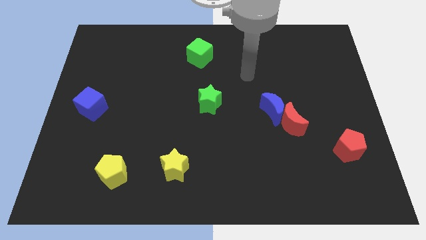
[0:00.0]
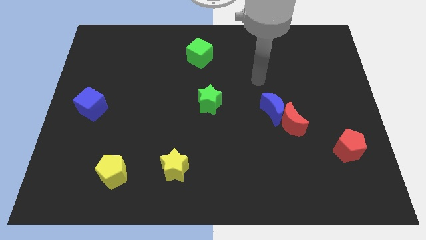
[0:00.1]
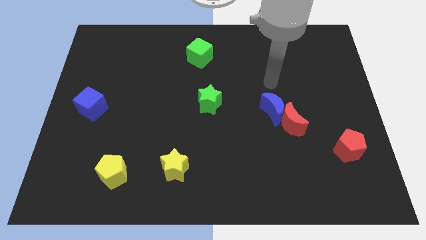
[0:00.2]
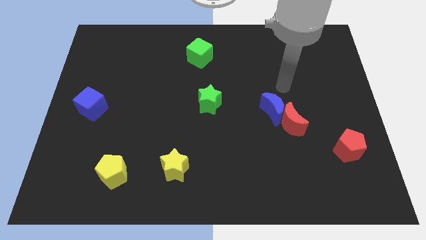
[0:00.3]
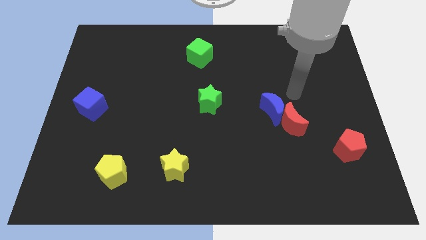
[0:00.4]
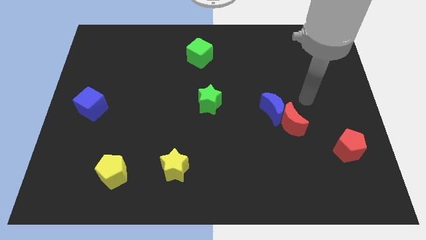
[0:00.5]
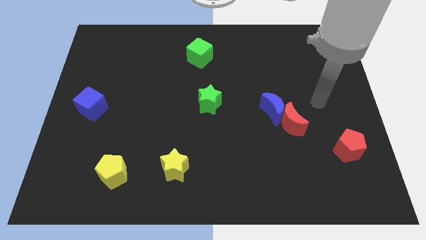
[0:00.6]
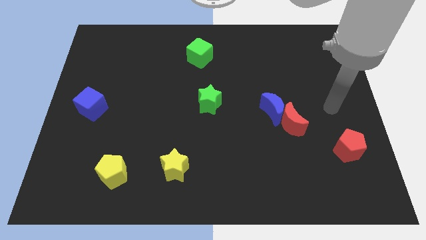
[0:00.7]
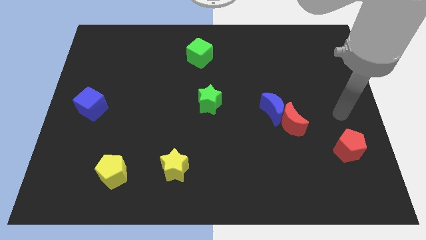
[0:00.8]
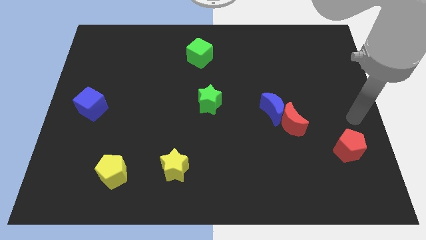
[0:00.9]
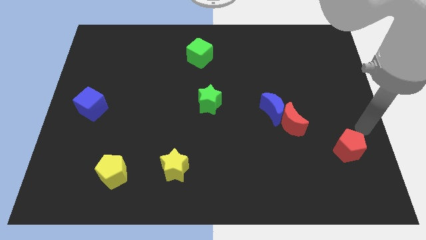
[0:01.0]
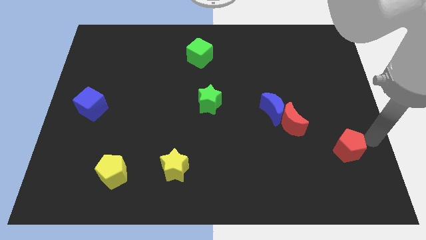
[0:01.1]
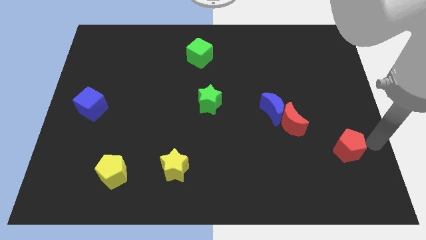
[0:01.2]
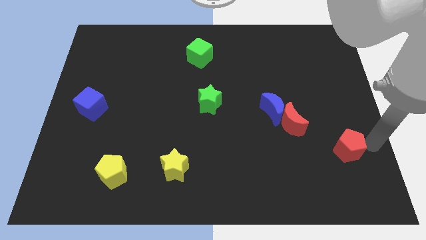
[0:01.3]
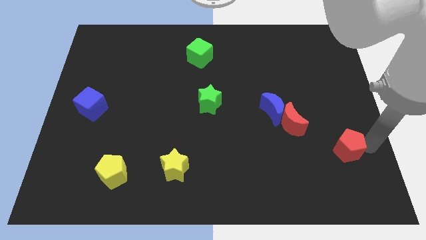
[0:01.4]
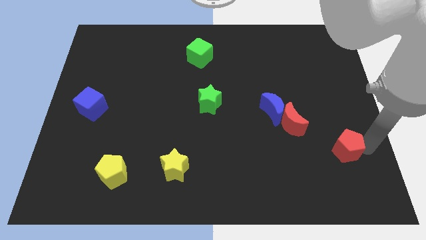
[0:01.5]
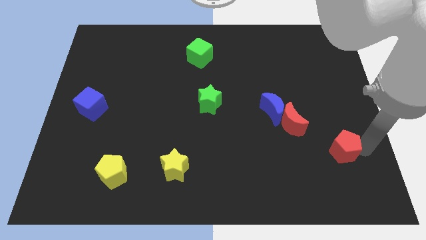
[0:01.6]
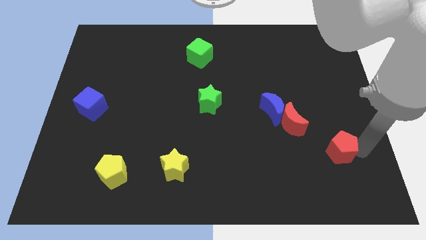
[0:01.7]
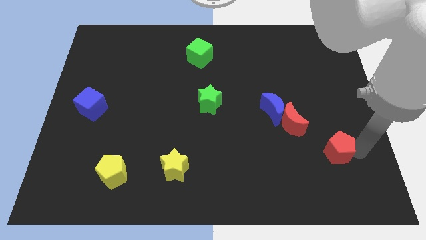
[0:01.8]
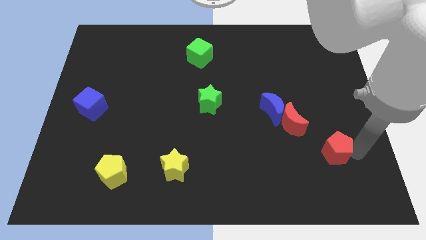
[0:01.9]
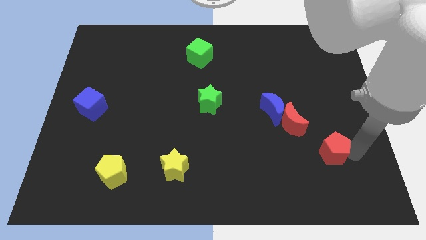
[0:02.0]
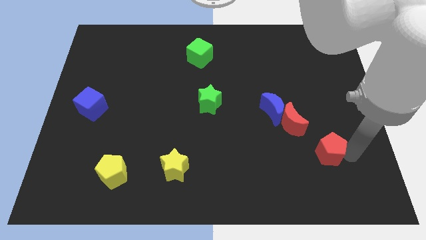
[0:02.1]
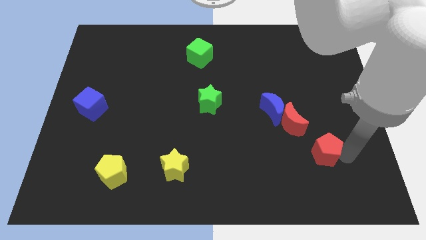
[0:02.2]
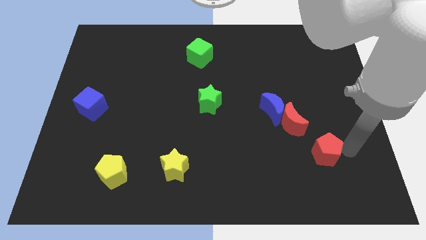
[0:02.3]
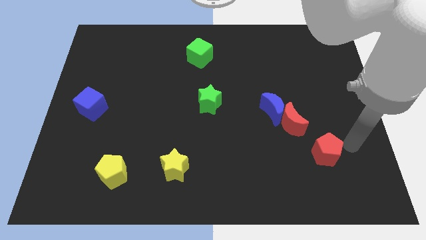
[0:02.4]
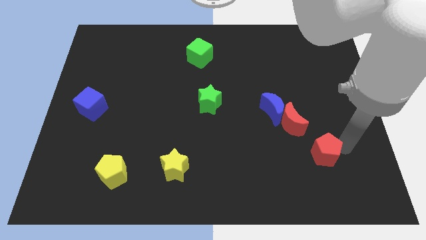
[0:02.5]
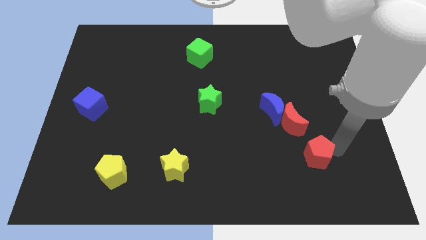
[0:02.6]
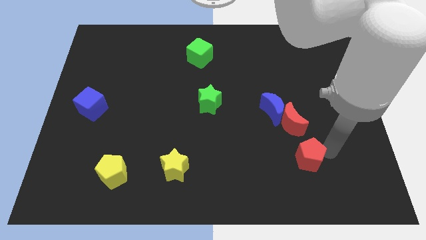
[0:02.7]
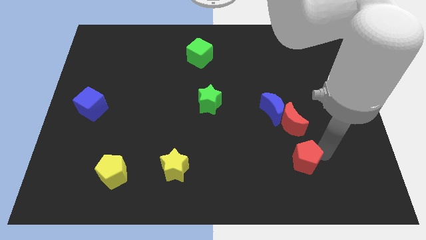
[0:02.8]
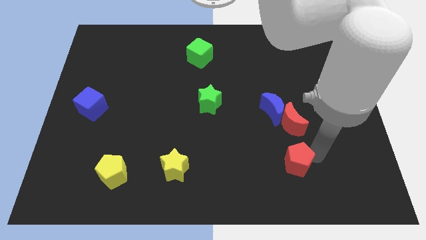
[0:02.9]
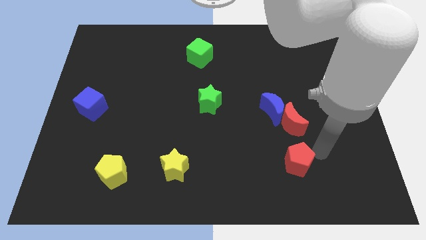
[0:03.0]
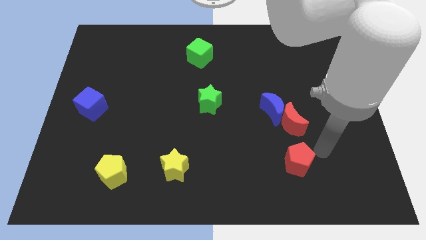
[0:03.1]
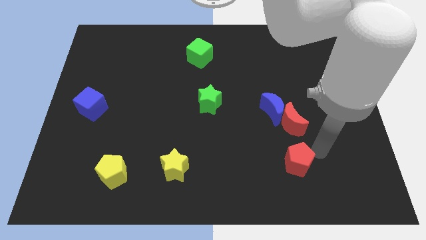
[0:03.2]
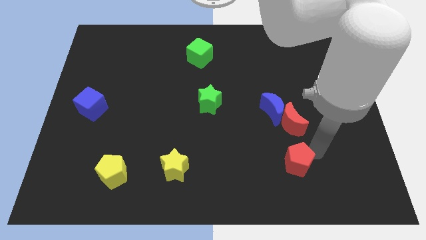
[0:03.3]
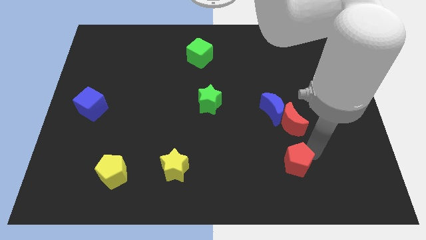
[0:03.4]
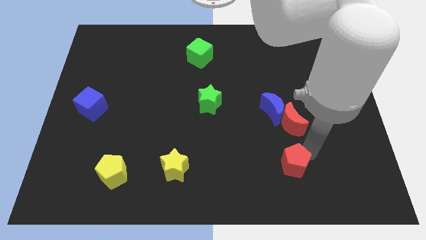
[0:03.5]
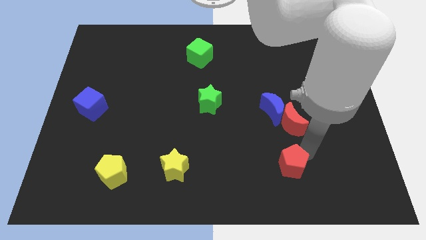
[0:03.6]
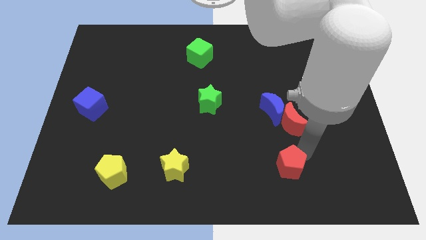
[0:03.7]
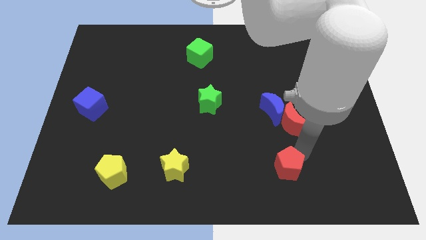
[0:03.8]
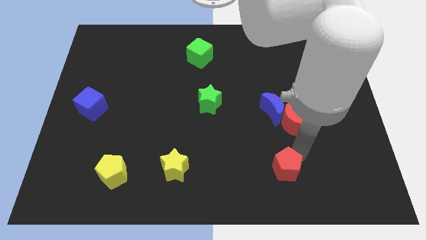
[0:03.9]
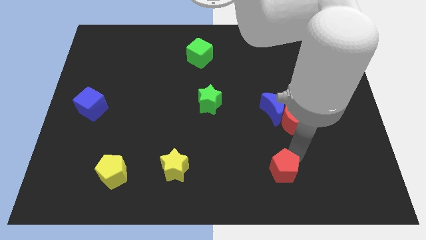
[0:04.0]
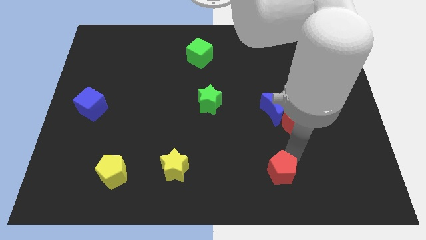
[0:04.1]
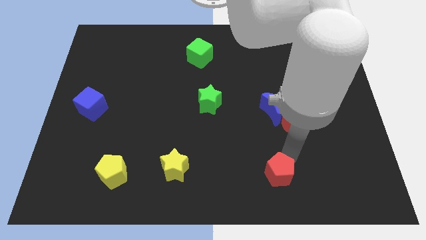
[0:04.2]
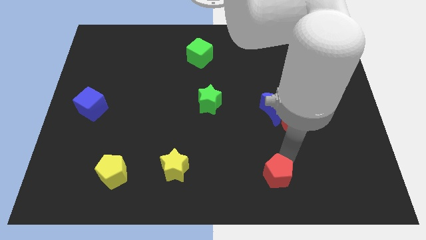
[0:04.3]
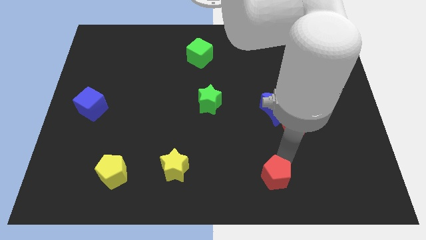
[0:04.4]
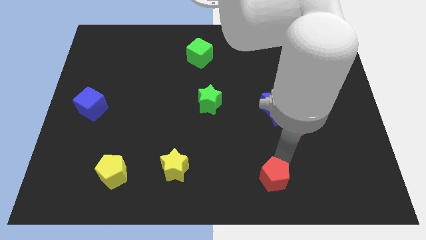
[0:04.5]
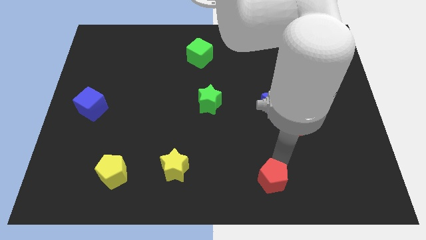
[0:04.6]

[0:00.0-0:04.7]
put the red pentagon to the bottom

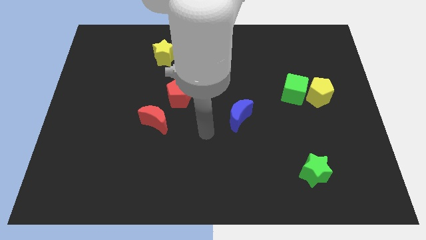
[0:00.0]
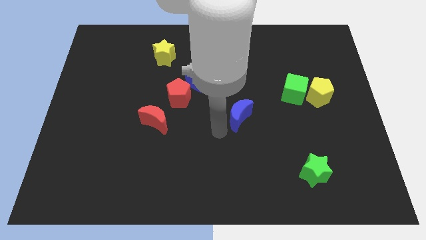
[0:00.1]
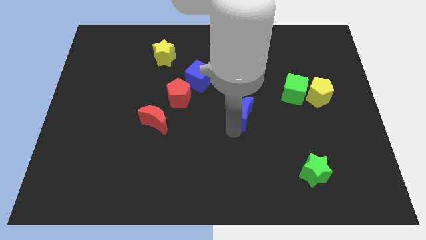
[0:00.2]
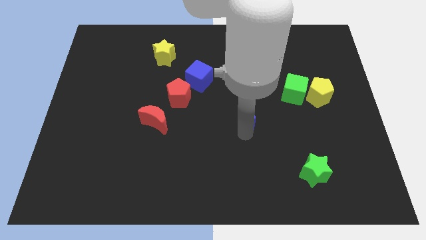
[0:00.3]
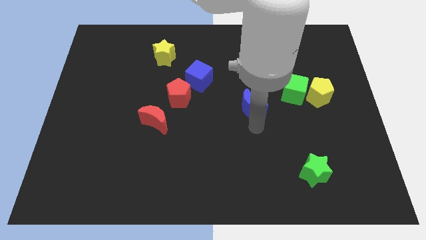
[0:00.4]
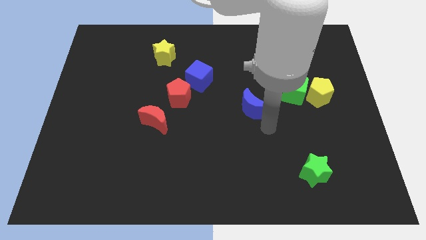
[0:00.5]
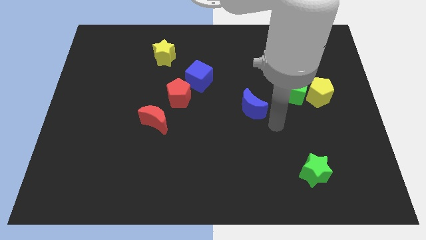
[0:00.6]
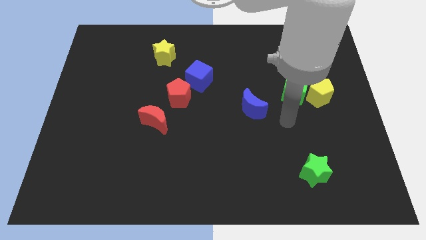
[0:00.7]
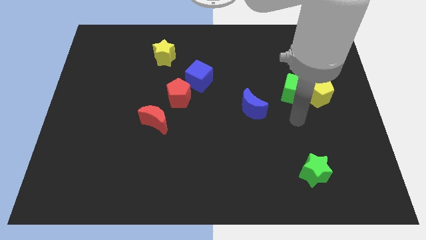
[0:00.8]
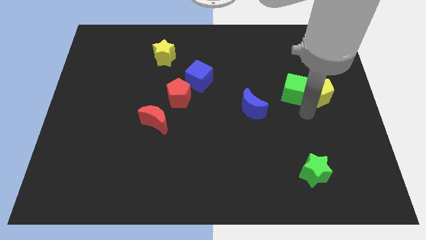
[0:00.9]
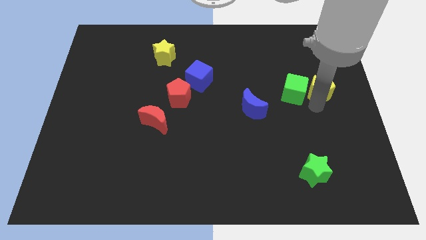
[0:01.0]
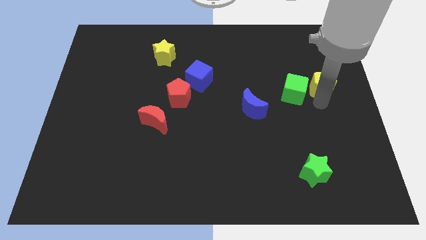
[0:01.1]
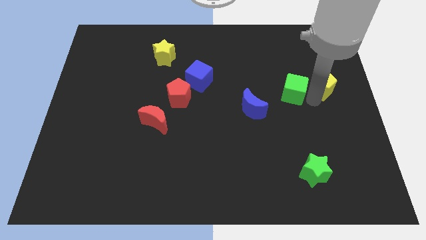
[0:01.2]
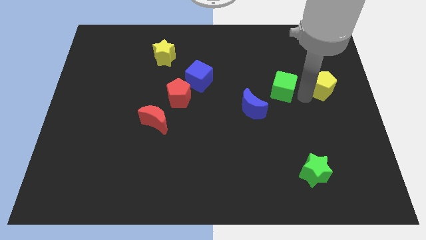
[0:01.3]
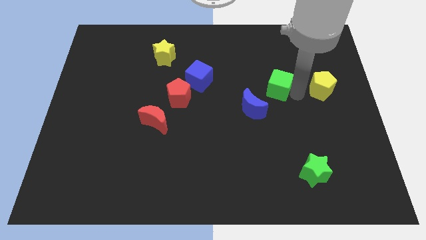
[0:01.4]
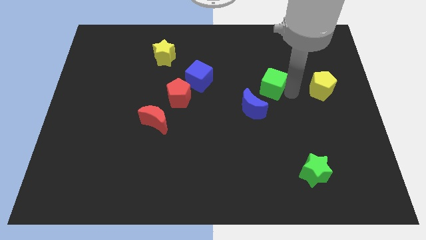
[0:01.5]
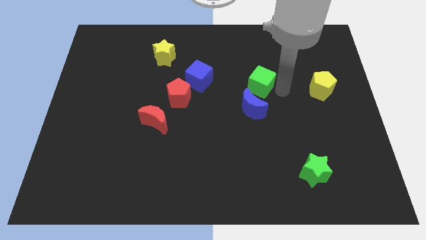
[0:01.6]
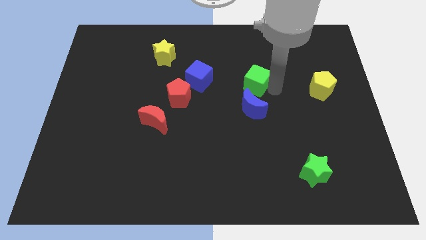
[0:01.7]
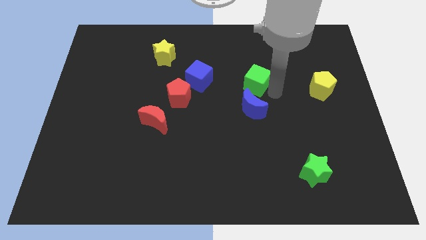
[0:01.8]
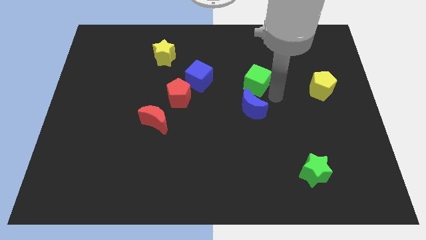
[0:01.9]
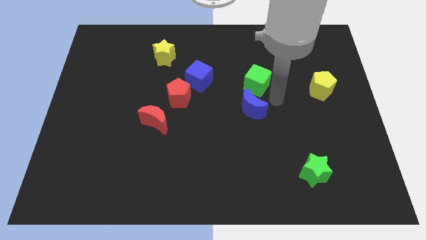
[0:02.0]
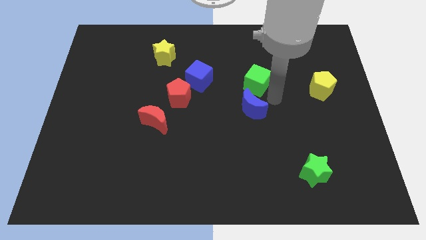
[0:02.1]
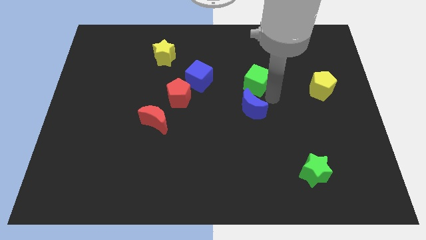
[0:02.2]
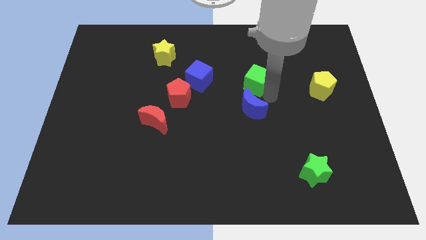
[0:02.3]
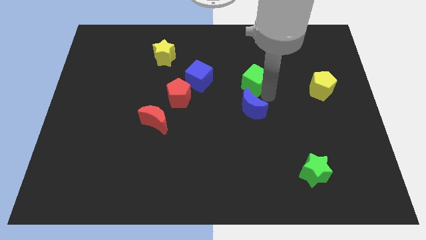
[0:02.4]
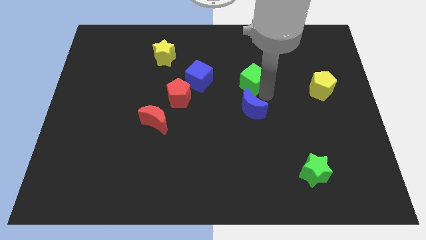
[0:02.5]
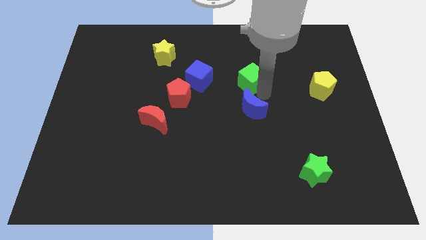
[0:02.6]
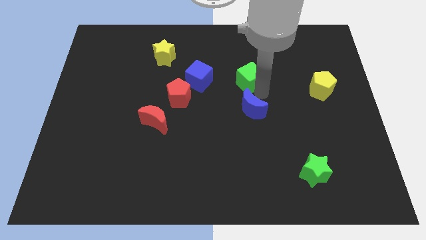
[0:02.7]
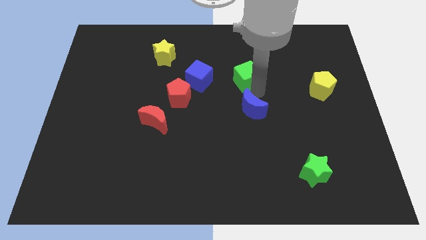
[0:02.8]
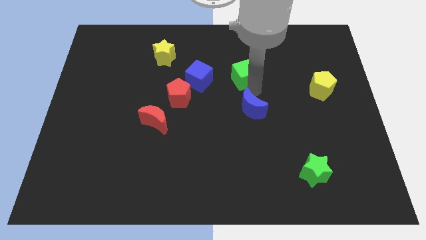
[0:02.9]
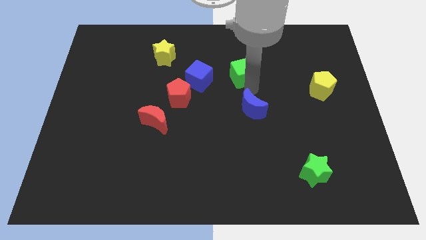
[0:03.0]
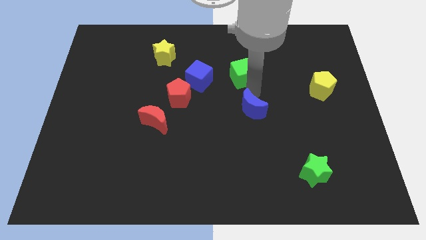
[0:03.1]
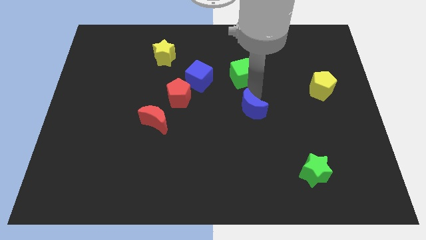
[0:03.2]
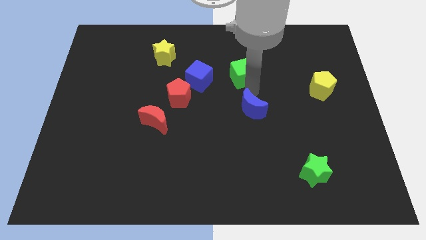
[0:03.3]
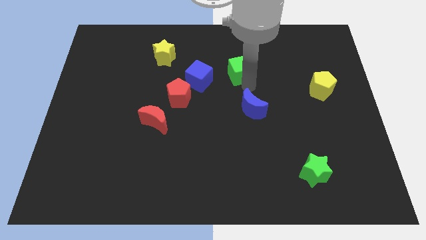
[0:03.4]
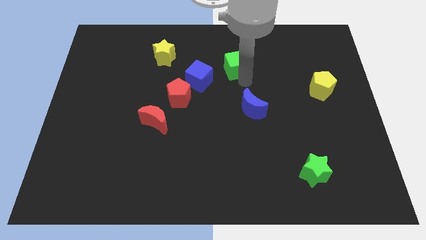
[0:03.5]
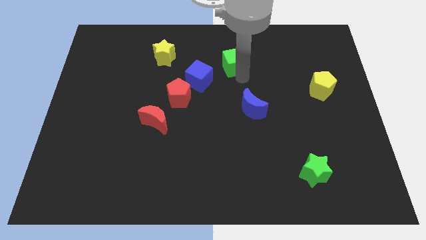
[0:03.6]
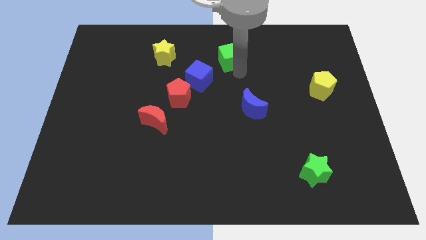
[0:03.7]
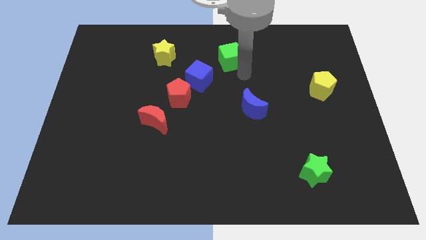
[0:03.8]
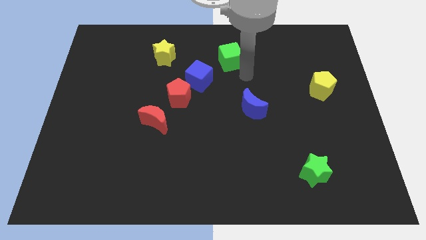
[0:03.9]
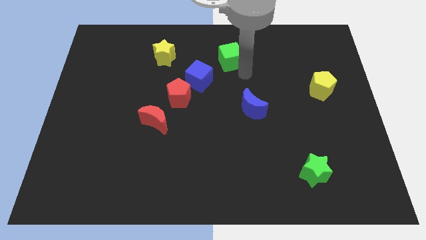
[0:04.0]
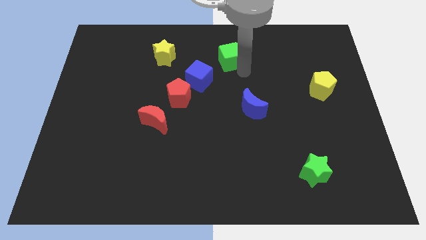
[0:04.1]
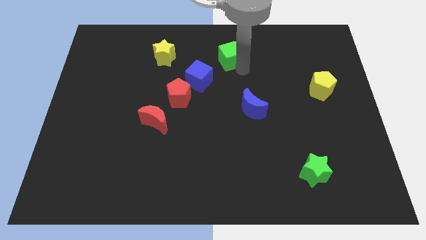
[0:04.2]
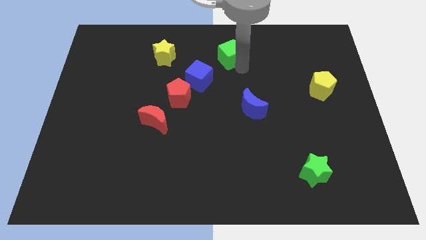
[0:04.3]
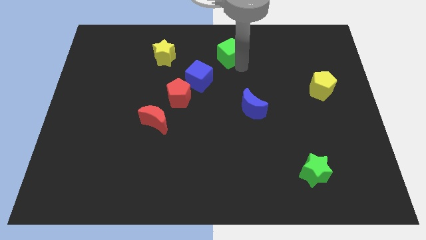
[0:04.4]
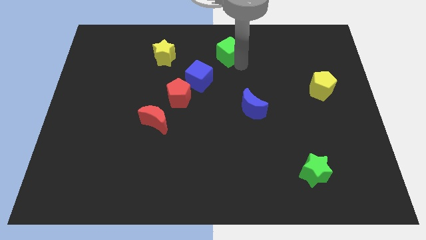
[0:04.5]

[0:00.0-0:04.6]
slide the green cube to the top side
